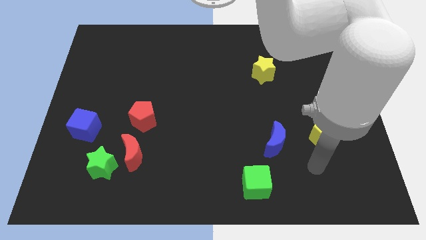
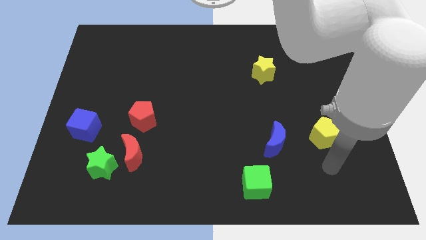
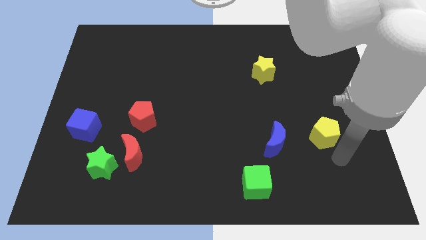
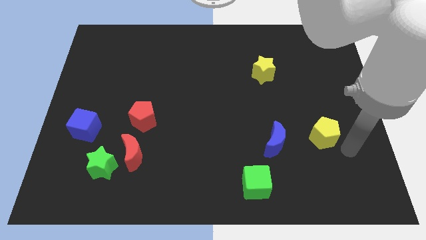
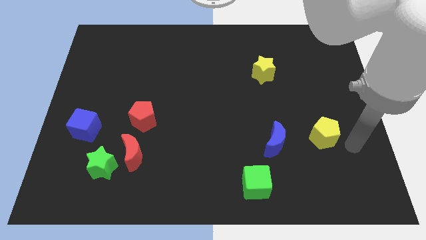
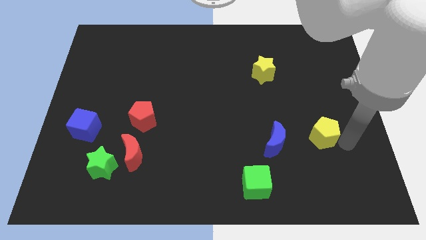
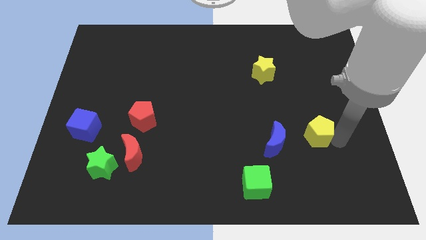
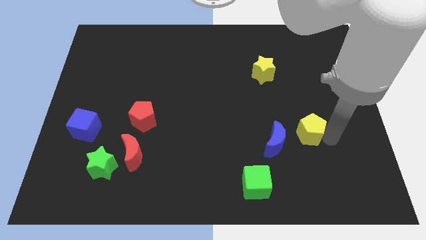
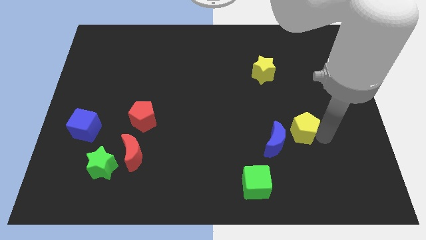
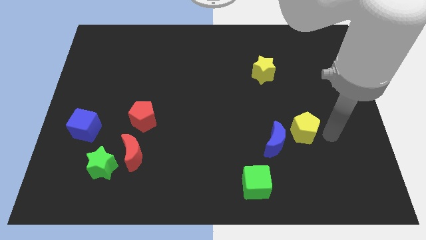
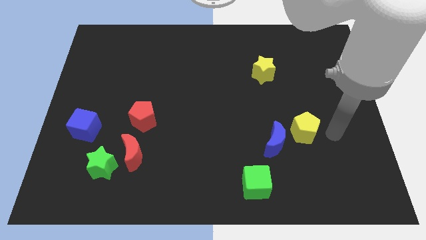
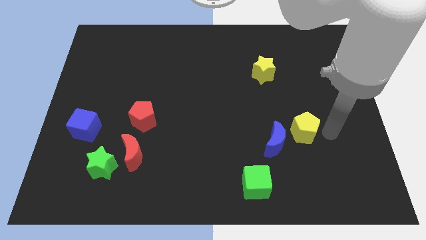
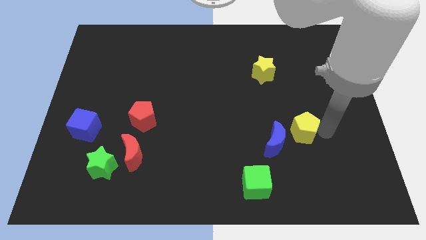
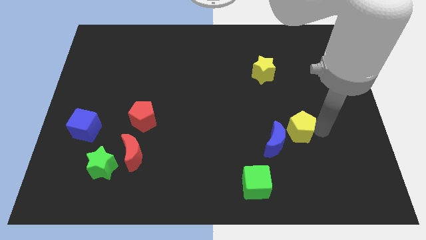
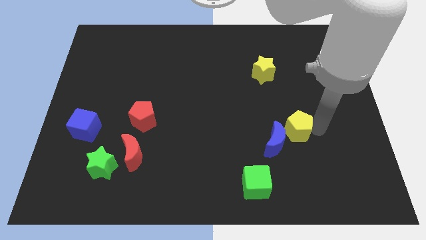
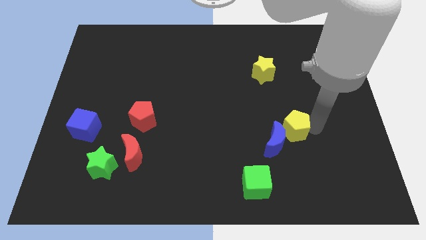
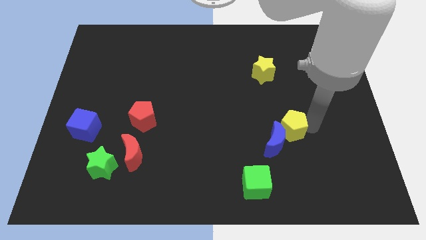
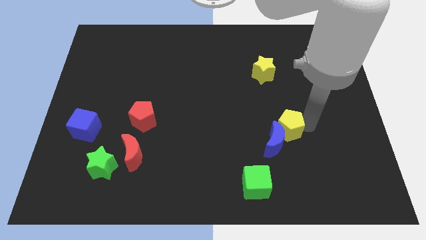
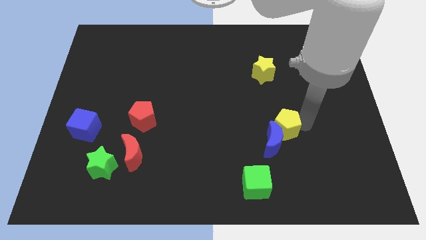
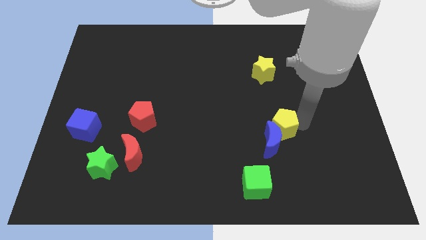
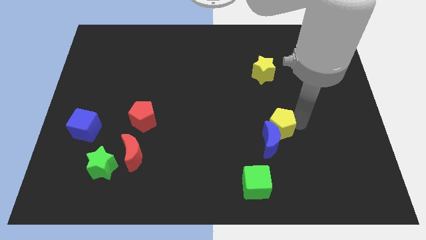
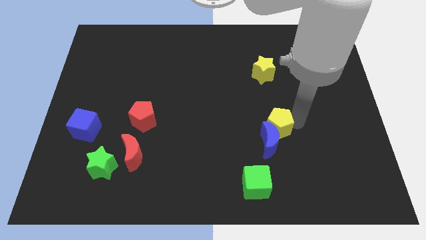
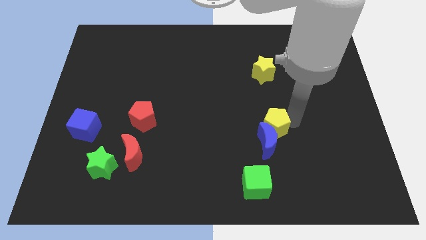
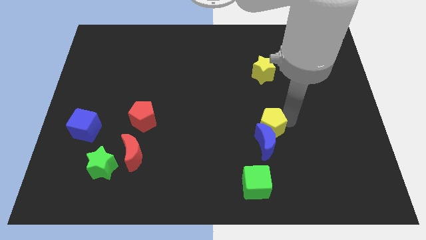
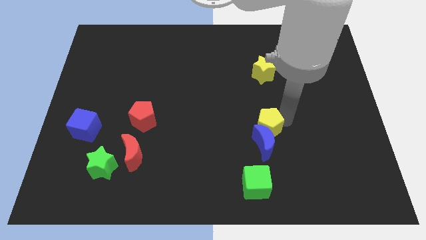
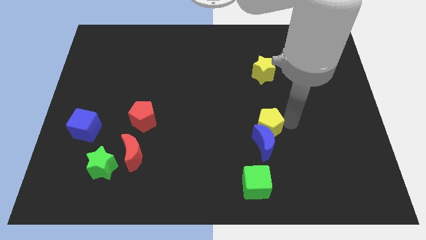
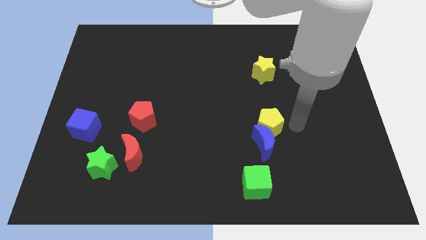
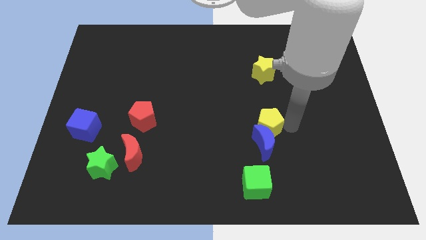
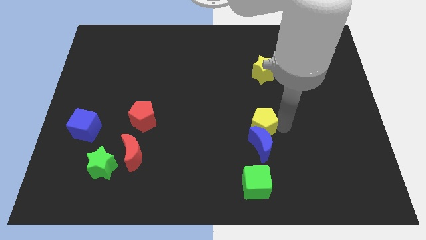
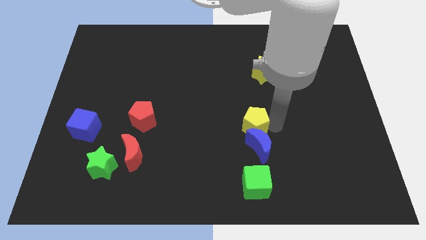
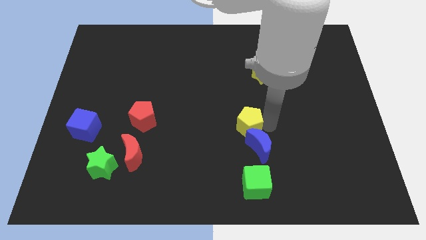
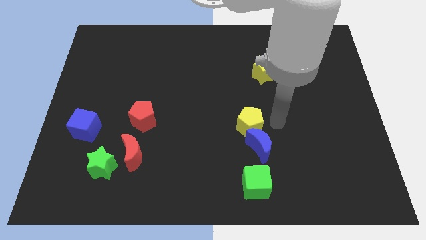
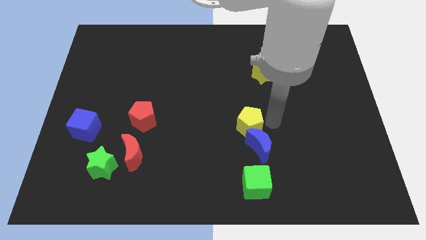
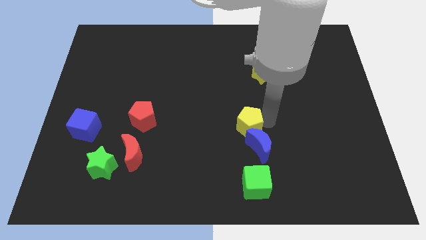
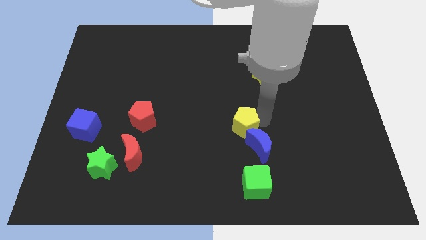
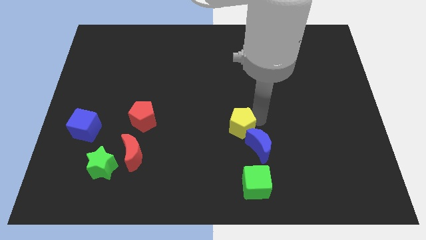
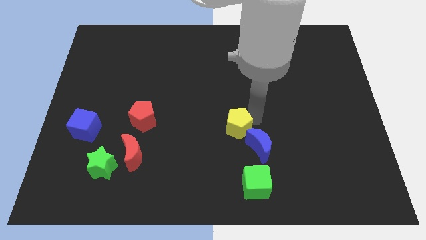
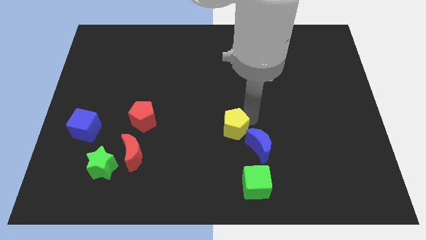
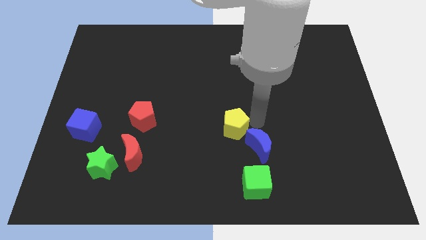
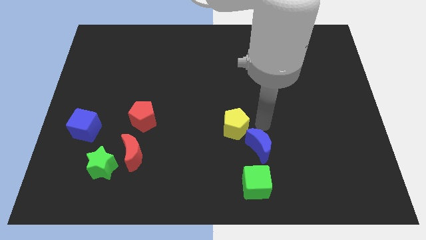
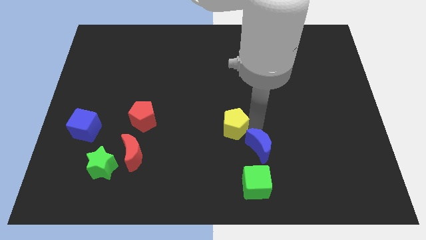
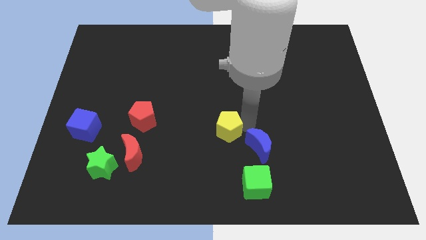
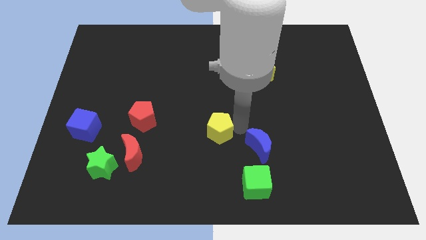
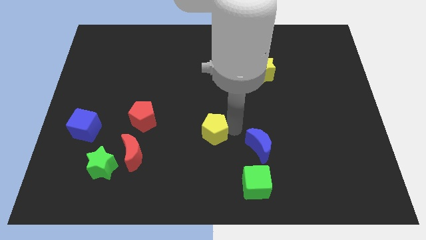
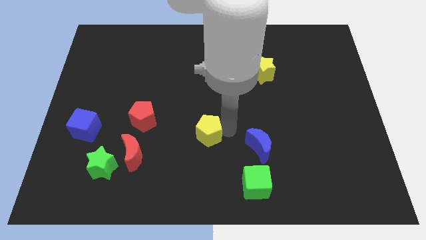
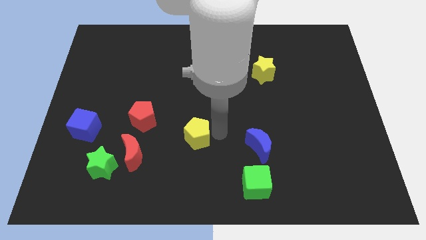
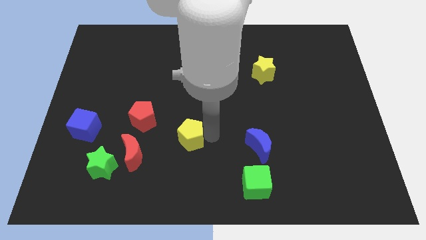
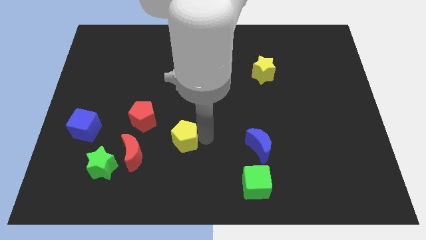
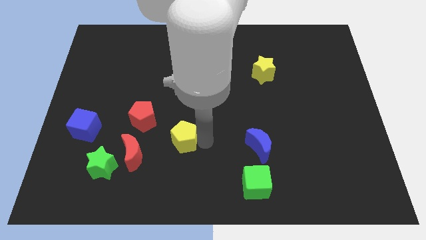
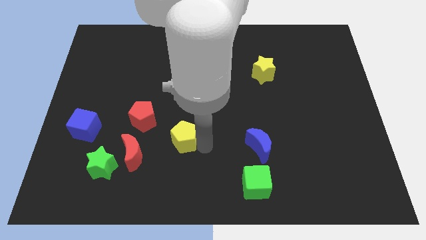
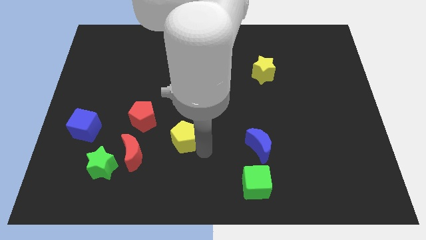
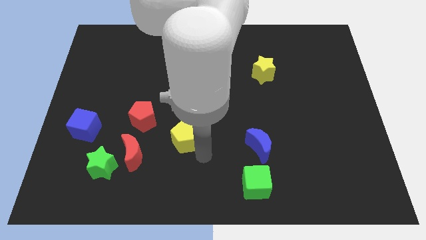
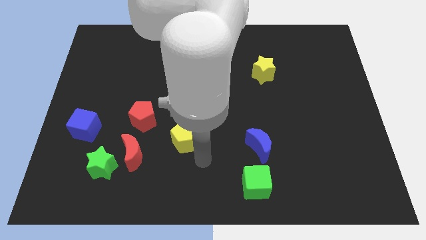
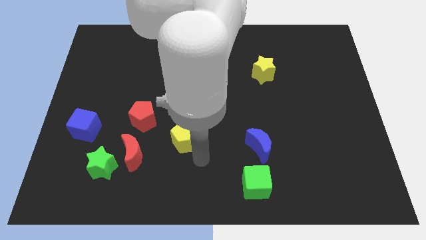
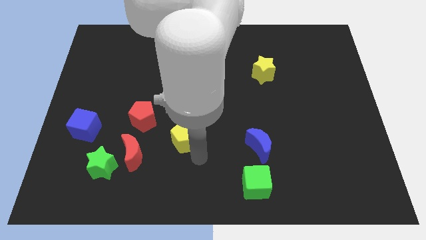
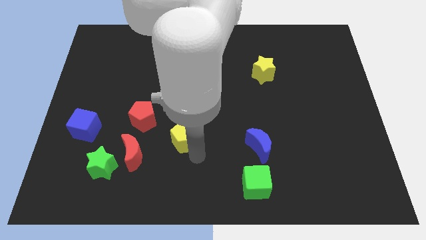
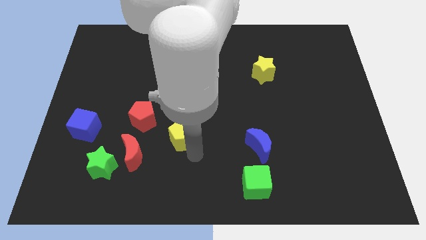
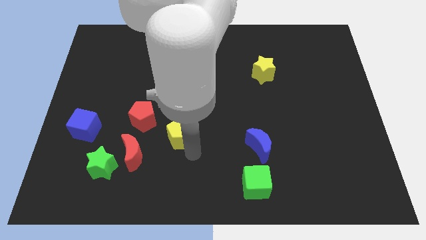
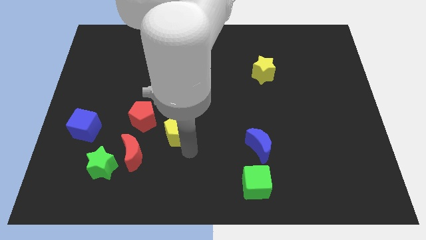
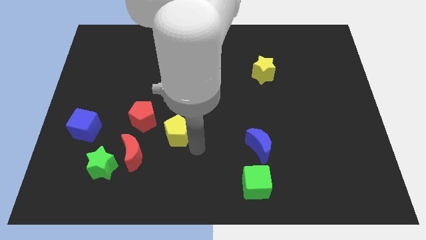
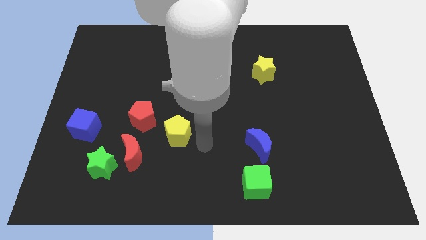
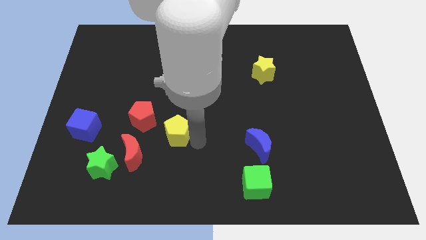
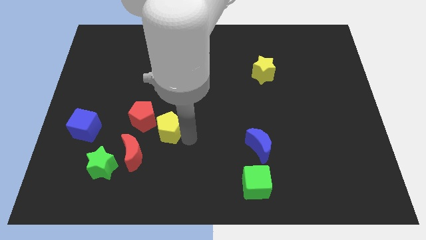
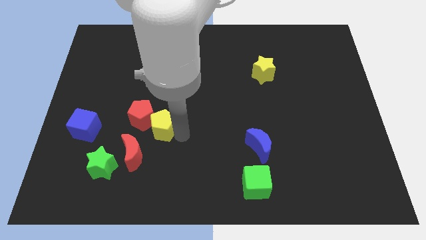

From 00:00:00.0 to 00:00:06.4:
move the yellow pentagon next to the red pentagon

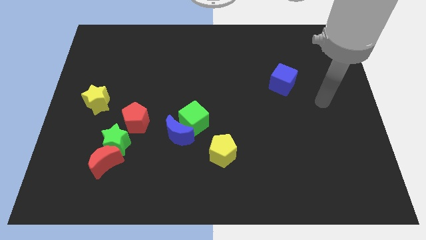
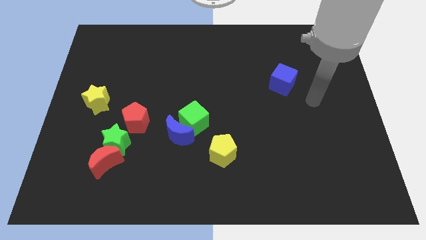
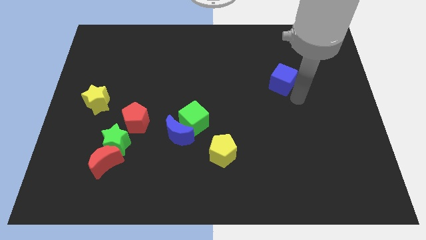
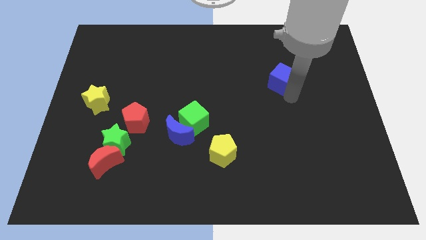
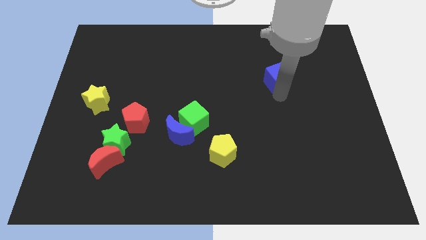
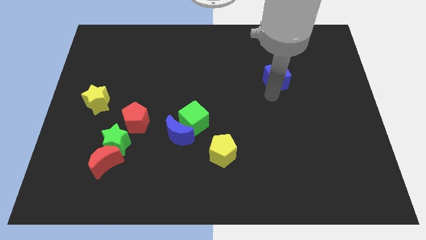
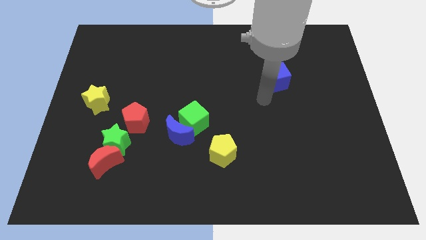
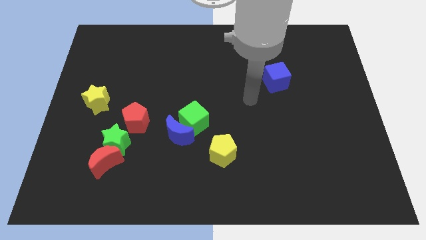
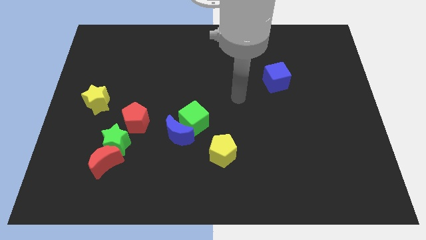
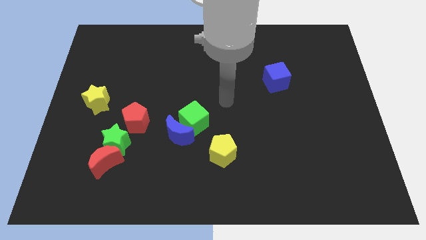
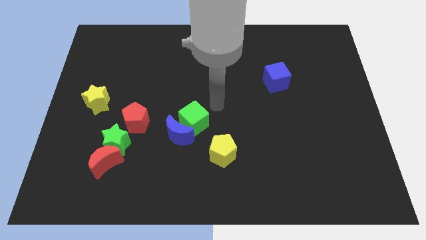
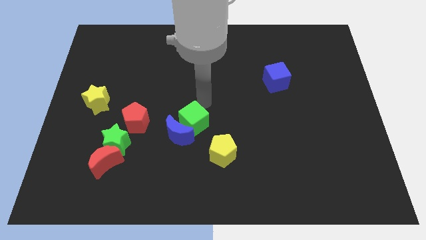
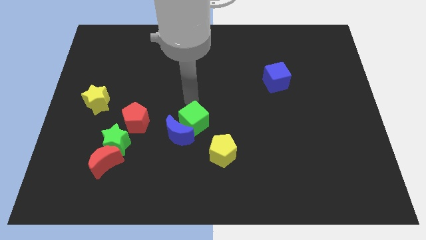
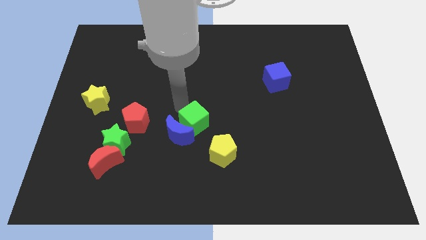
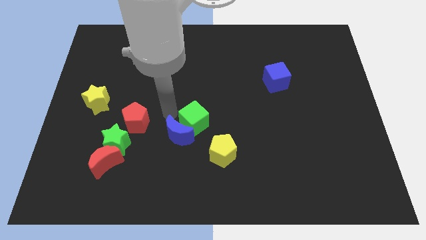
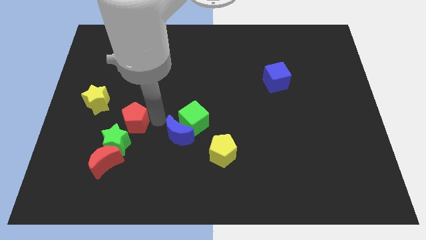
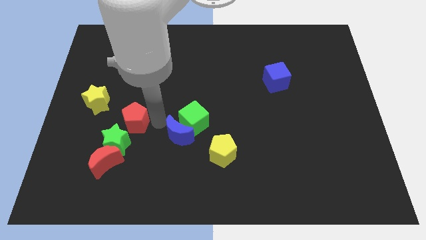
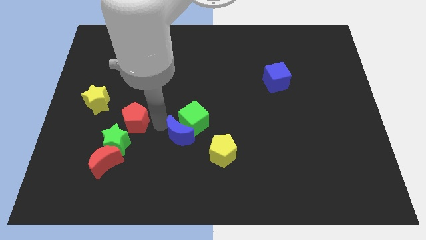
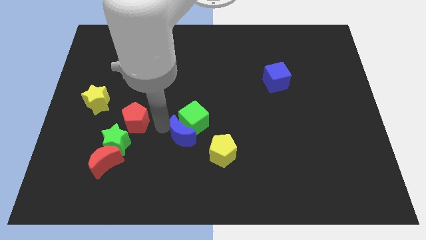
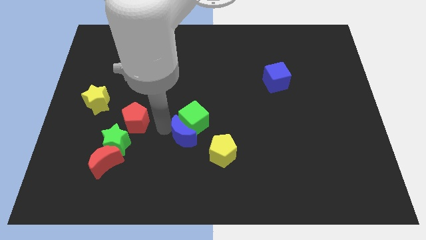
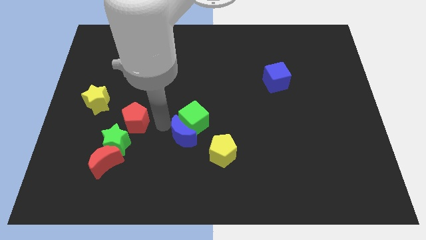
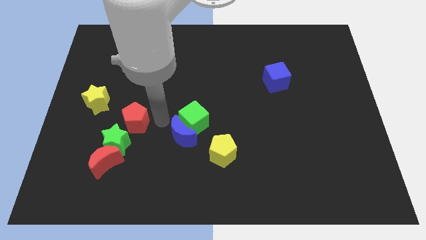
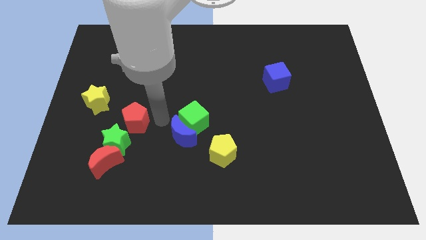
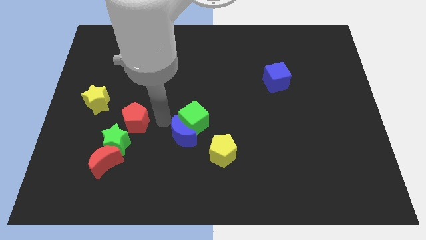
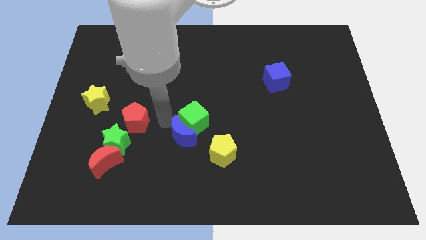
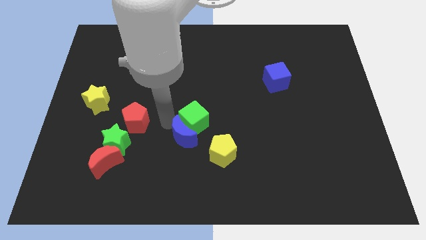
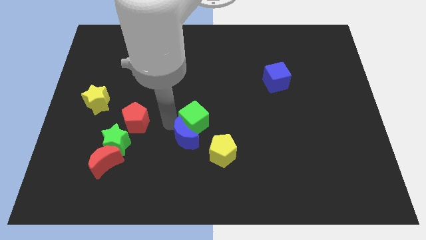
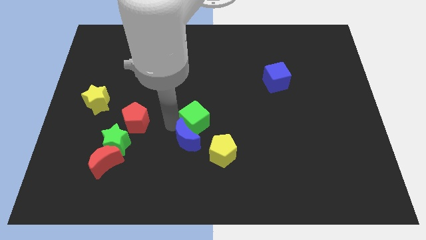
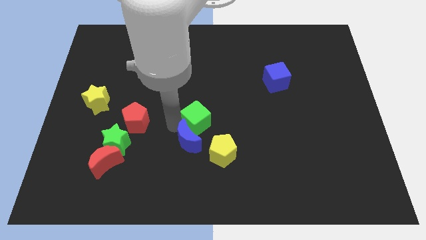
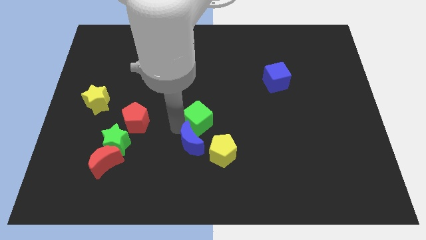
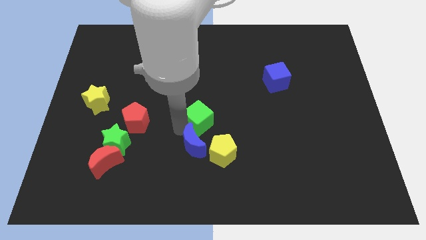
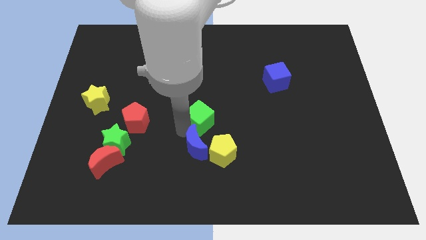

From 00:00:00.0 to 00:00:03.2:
put the blue moon to the yellow pentagon
